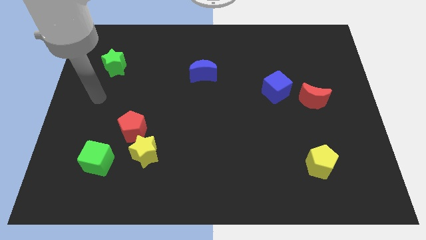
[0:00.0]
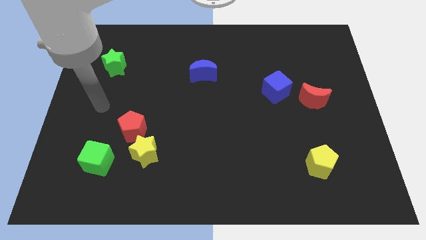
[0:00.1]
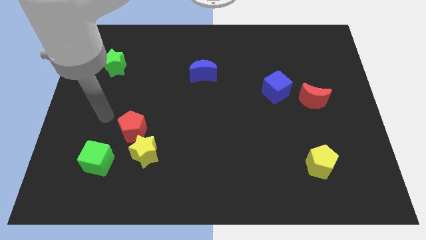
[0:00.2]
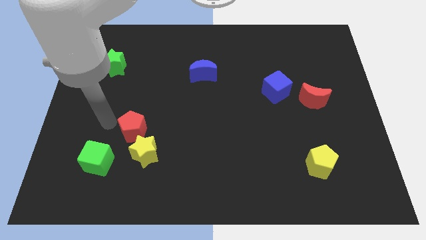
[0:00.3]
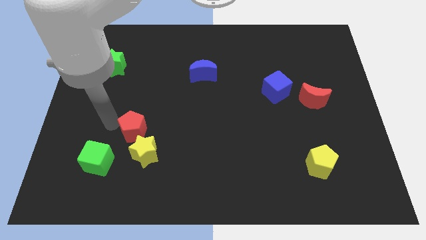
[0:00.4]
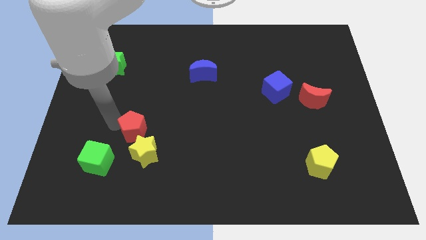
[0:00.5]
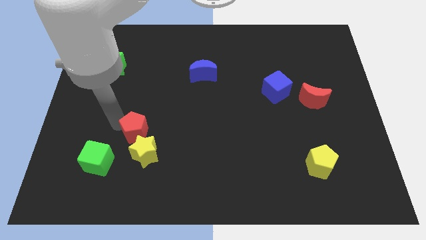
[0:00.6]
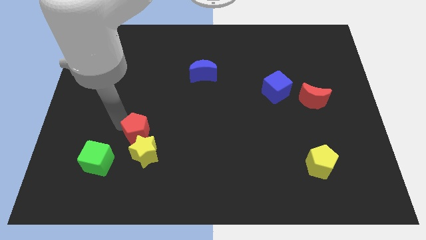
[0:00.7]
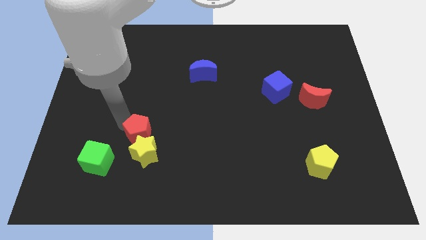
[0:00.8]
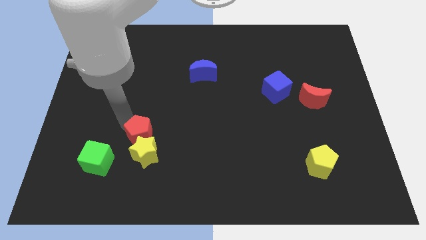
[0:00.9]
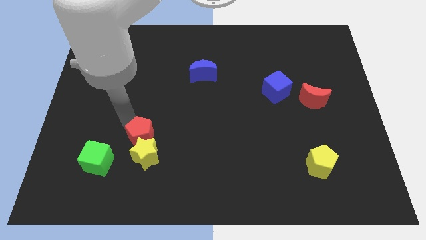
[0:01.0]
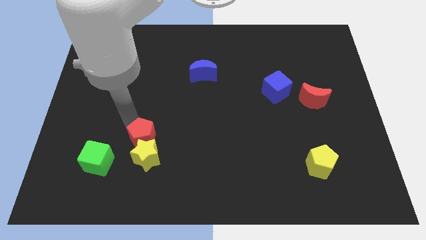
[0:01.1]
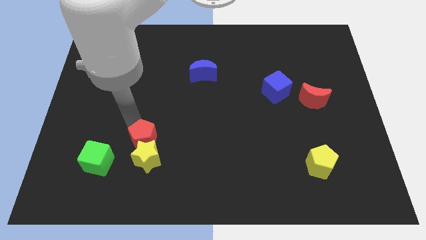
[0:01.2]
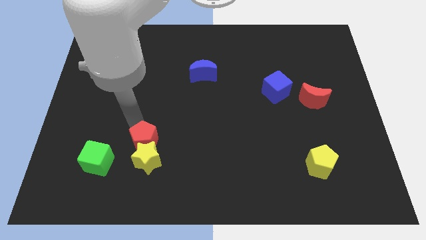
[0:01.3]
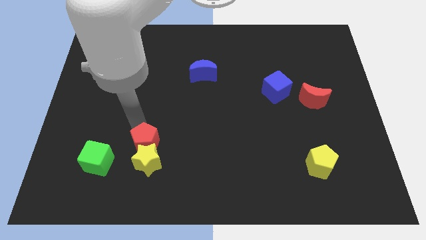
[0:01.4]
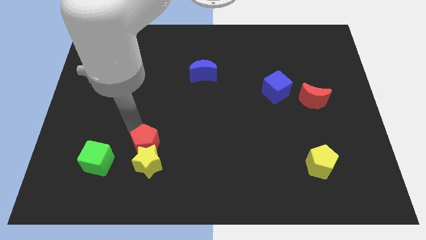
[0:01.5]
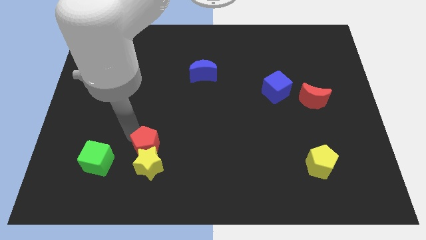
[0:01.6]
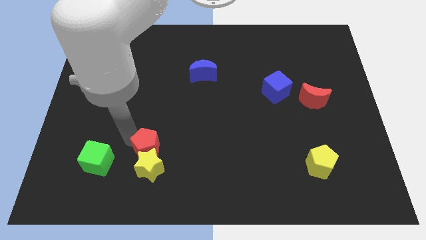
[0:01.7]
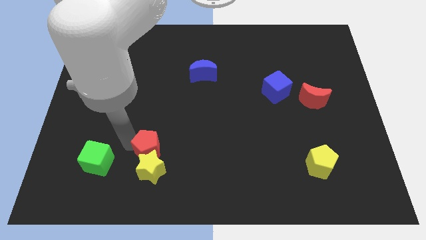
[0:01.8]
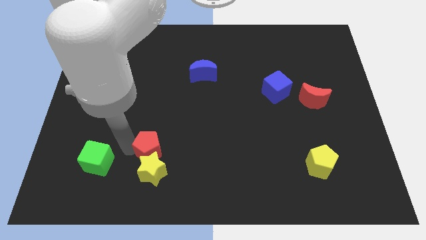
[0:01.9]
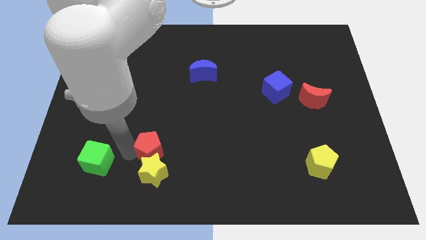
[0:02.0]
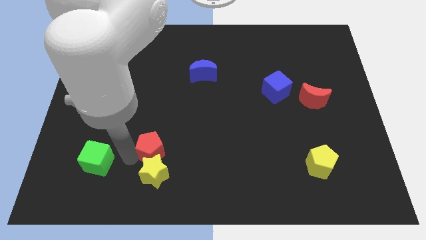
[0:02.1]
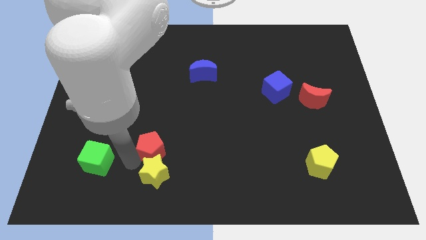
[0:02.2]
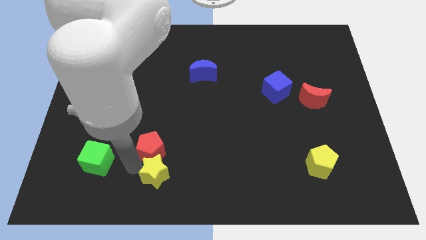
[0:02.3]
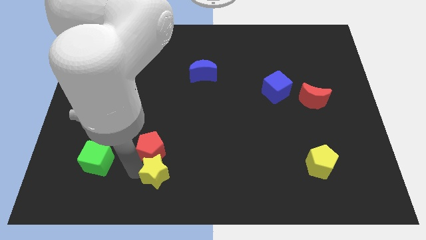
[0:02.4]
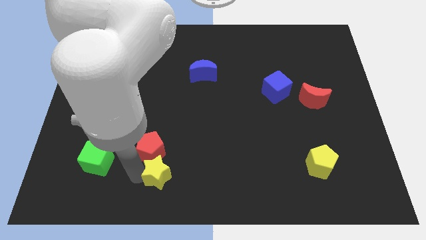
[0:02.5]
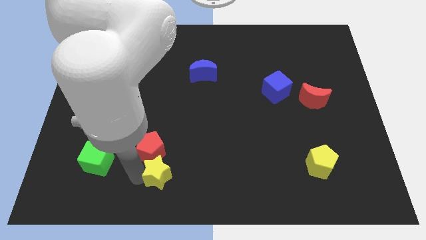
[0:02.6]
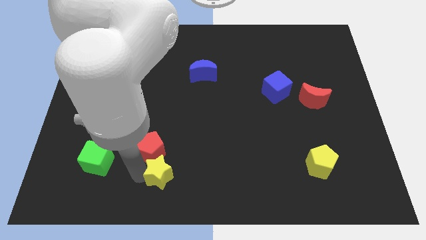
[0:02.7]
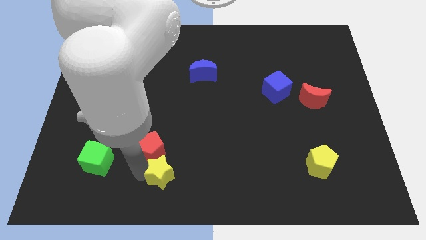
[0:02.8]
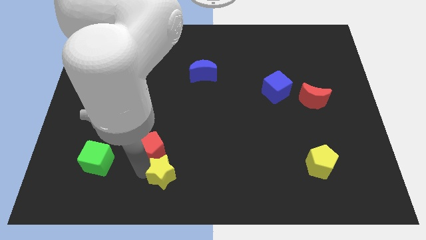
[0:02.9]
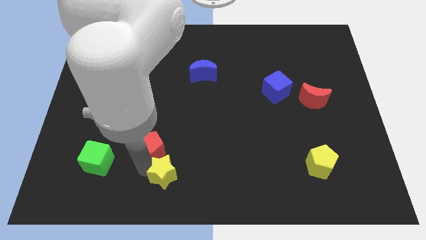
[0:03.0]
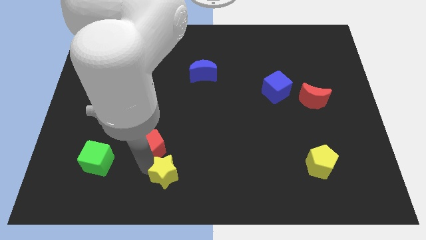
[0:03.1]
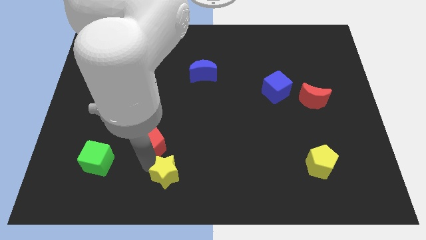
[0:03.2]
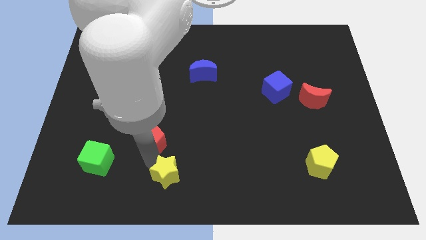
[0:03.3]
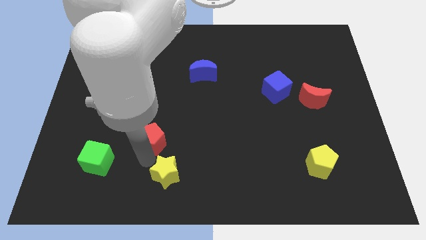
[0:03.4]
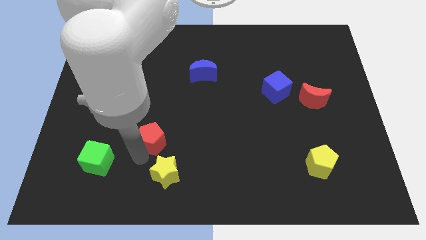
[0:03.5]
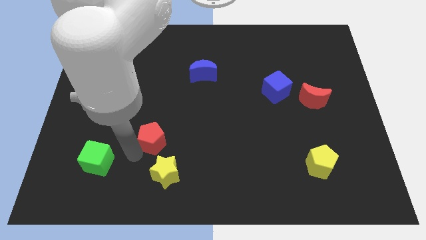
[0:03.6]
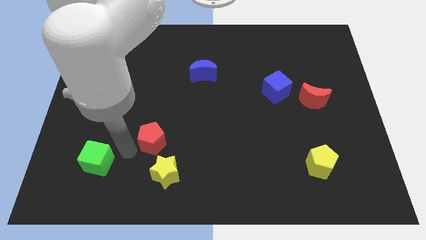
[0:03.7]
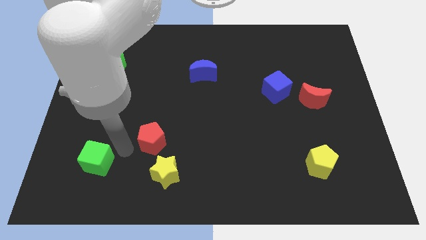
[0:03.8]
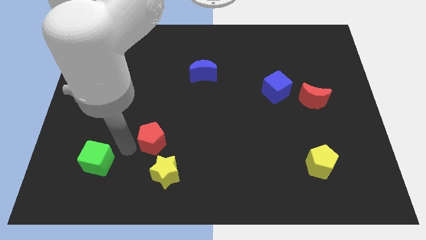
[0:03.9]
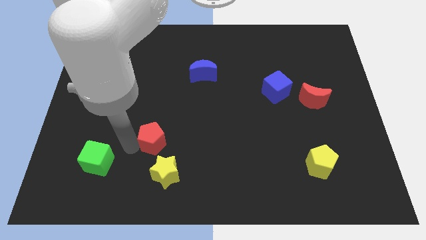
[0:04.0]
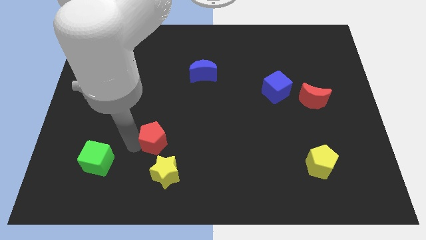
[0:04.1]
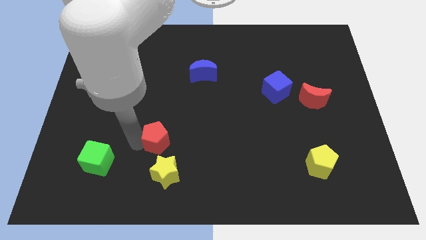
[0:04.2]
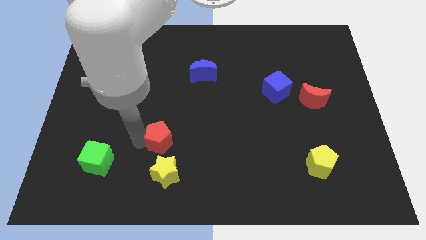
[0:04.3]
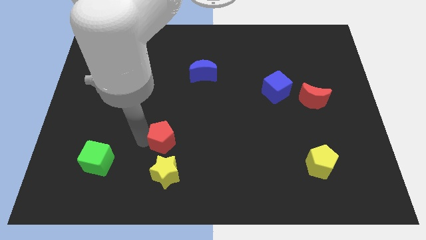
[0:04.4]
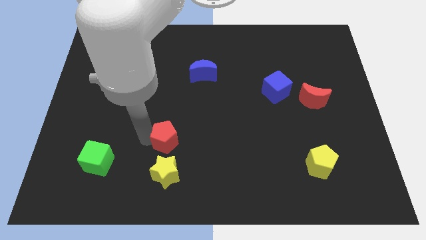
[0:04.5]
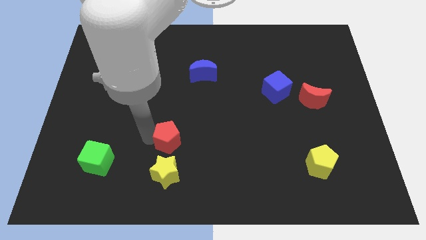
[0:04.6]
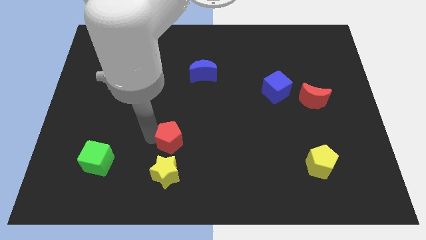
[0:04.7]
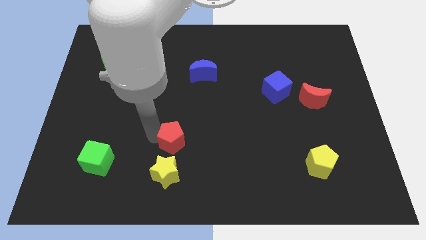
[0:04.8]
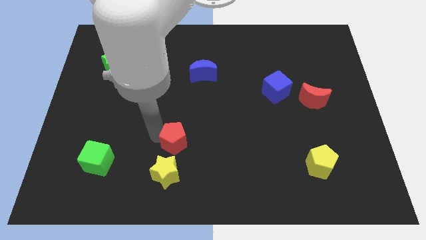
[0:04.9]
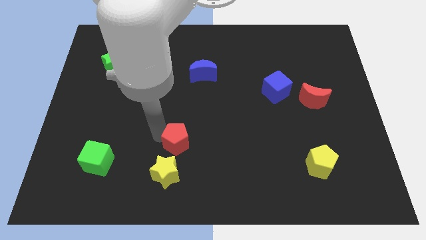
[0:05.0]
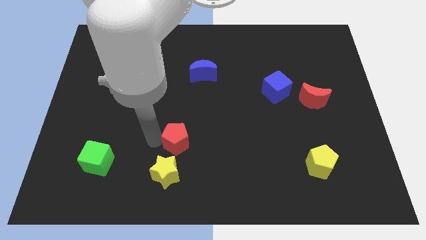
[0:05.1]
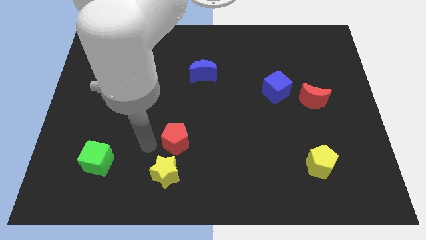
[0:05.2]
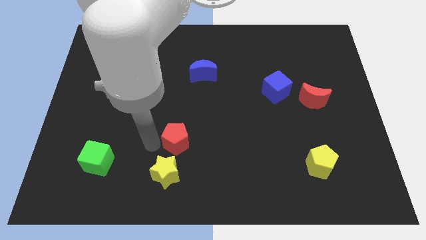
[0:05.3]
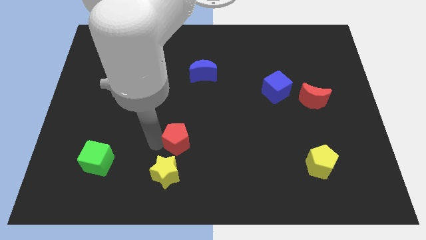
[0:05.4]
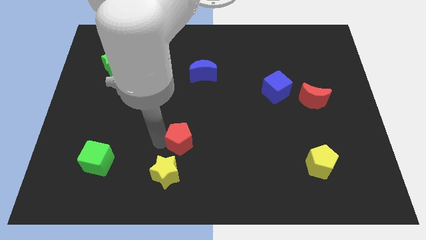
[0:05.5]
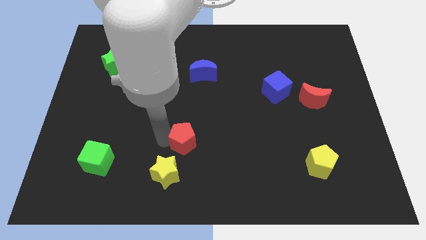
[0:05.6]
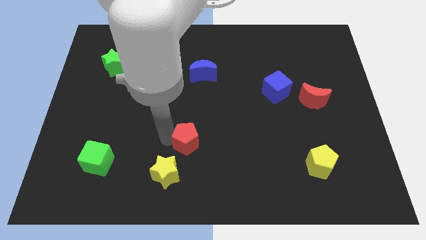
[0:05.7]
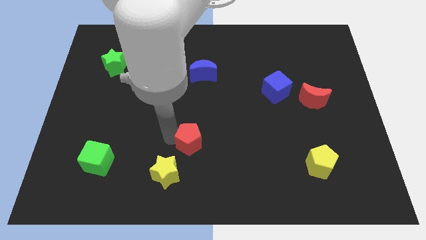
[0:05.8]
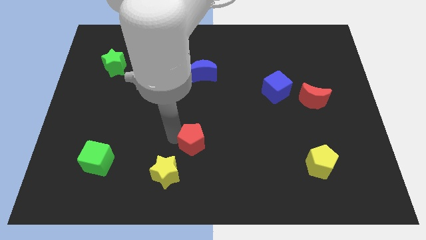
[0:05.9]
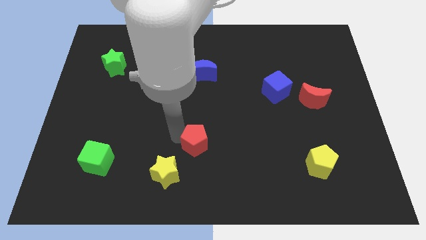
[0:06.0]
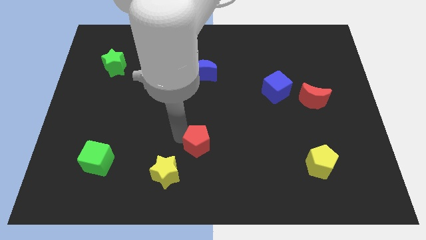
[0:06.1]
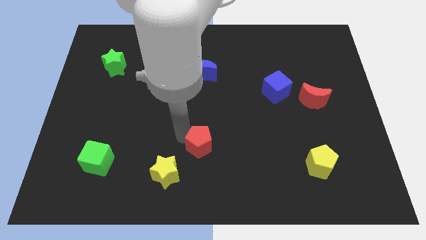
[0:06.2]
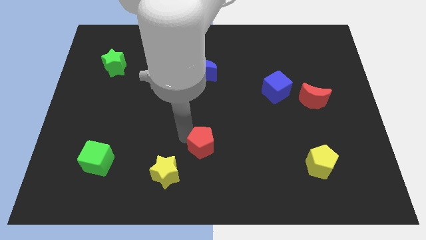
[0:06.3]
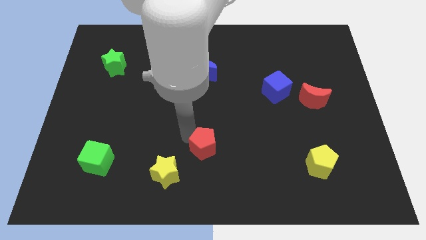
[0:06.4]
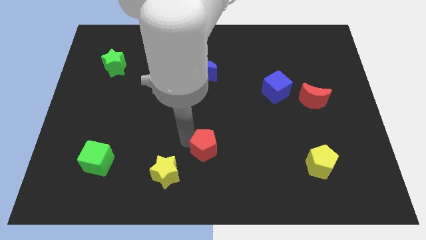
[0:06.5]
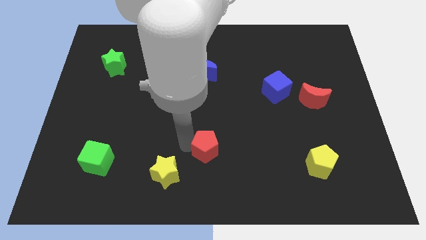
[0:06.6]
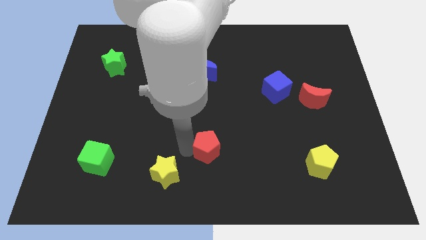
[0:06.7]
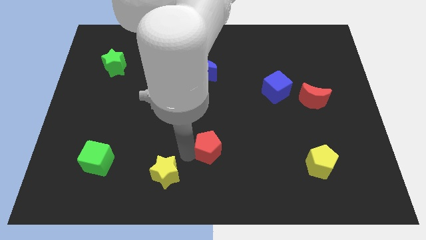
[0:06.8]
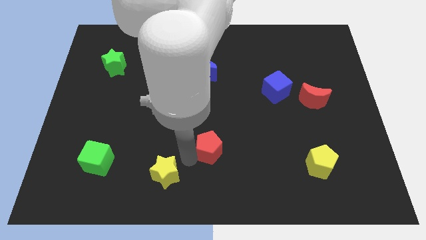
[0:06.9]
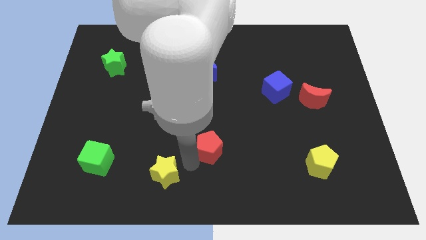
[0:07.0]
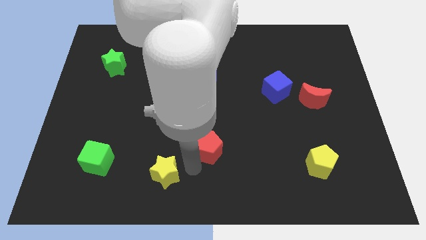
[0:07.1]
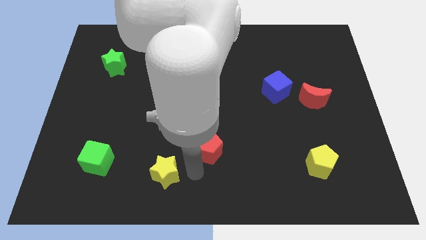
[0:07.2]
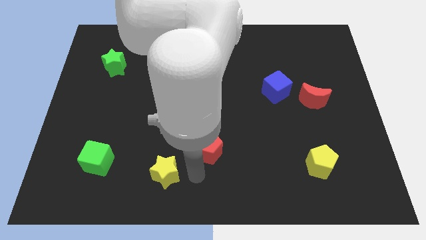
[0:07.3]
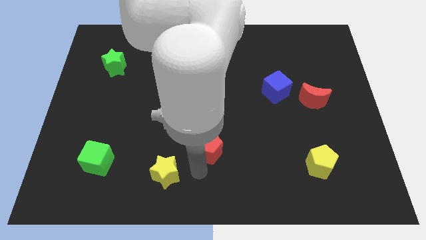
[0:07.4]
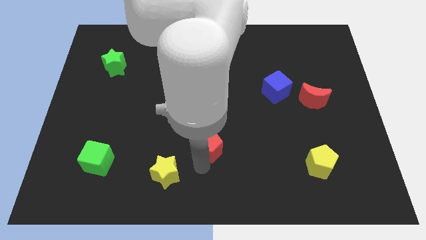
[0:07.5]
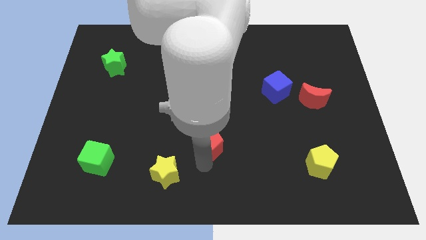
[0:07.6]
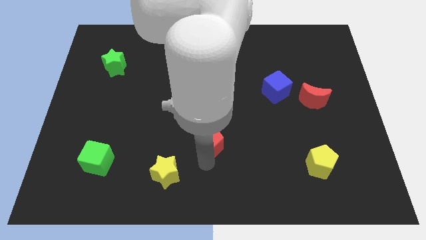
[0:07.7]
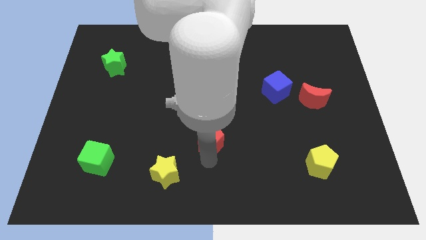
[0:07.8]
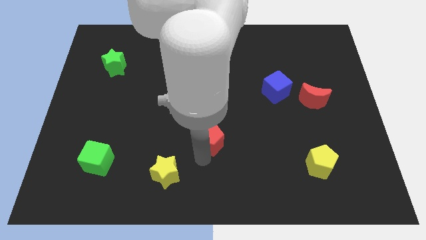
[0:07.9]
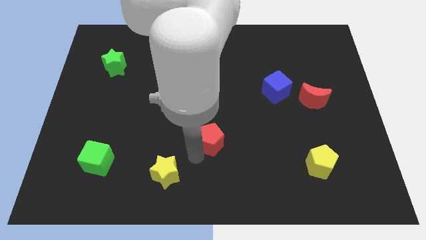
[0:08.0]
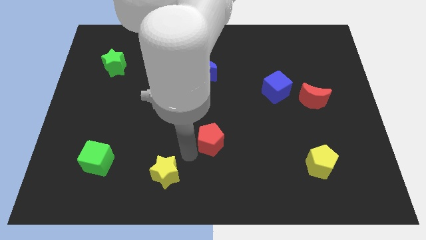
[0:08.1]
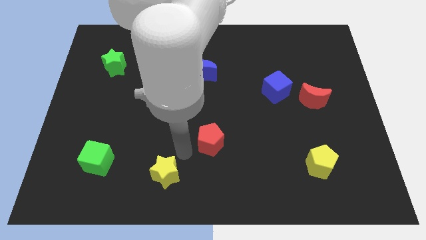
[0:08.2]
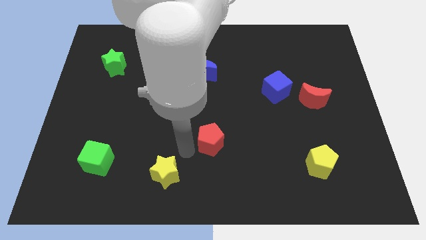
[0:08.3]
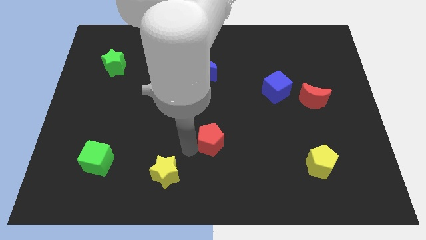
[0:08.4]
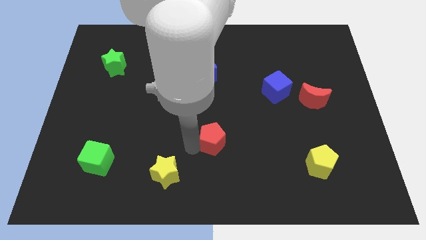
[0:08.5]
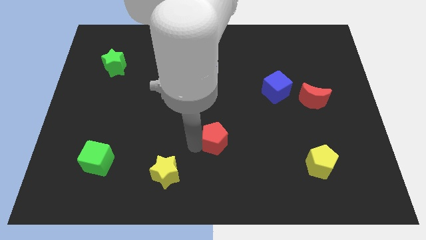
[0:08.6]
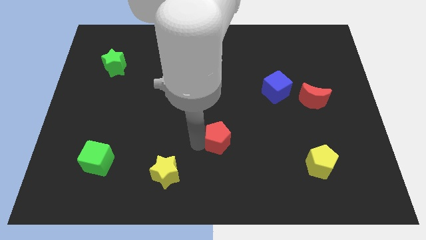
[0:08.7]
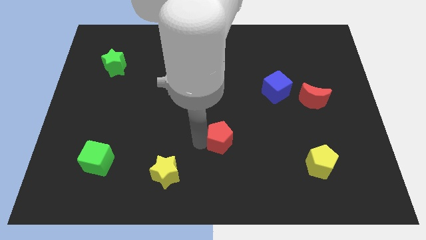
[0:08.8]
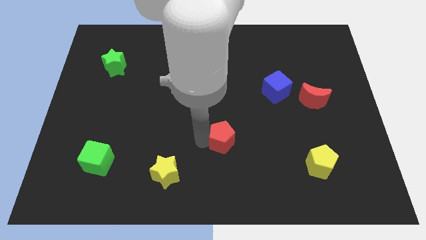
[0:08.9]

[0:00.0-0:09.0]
push the red pentagon to the right
